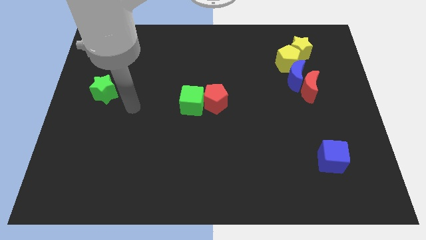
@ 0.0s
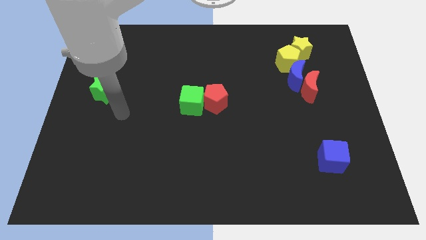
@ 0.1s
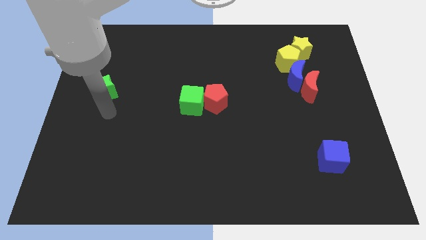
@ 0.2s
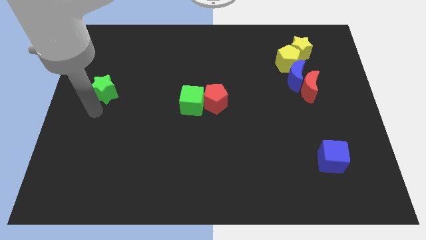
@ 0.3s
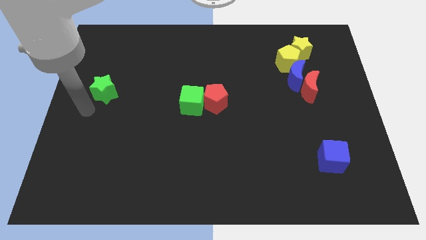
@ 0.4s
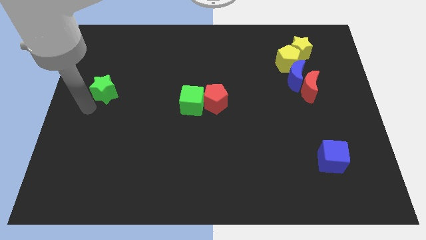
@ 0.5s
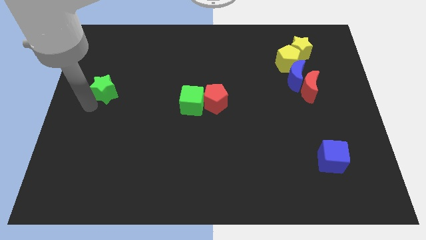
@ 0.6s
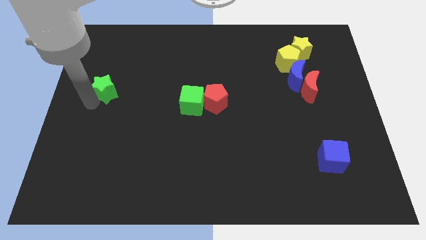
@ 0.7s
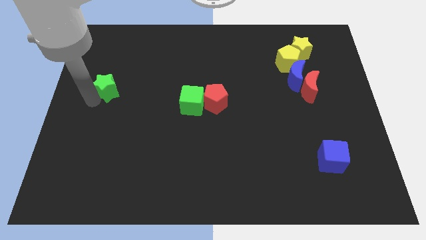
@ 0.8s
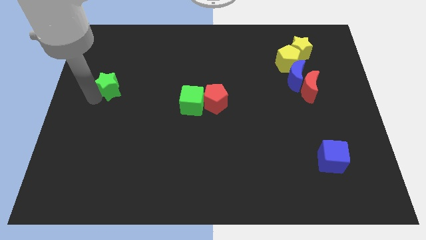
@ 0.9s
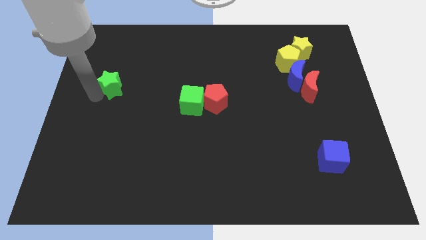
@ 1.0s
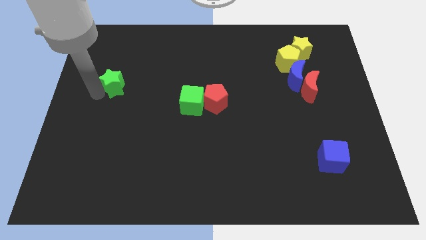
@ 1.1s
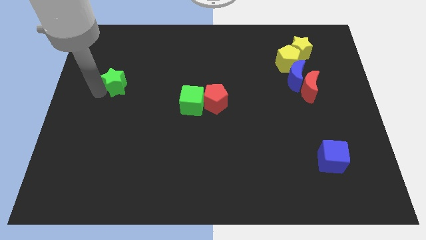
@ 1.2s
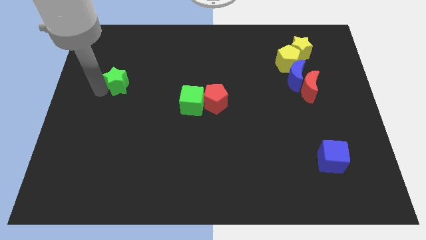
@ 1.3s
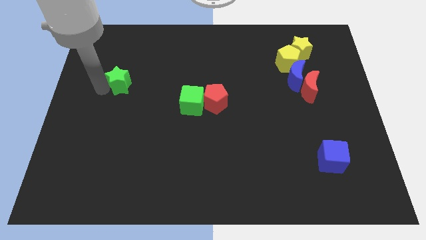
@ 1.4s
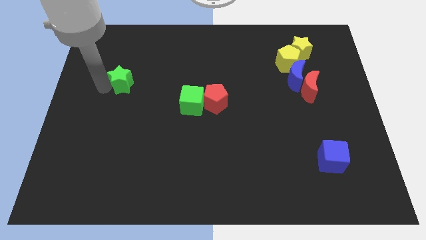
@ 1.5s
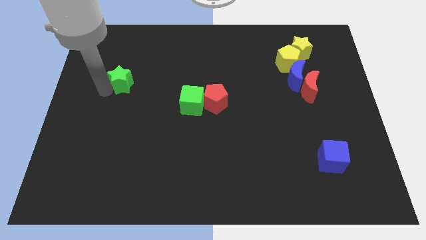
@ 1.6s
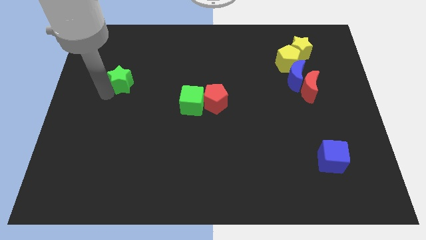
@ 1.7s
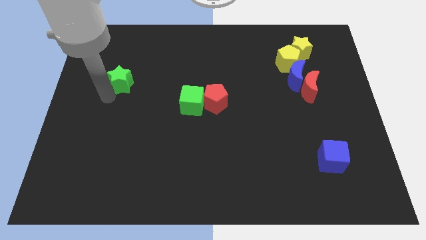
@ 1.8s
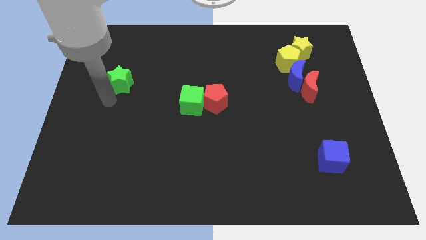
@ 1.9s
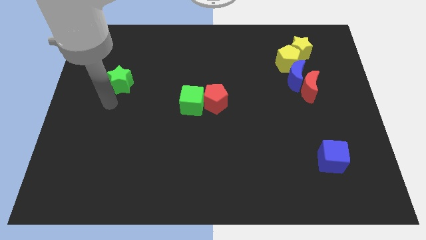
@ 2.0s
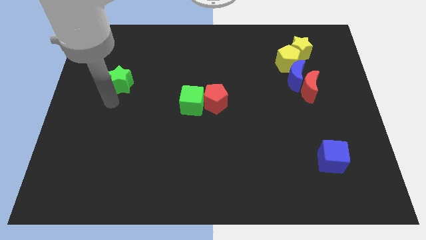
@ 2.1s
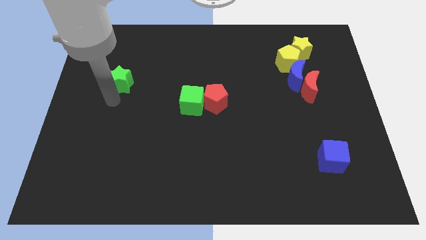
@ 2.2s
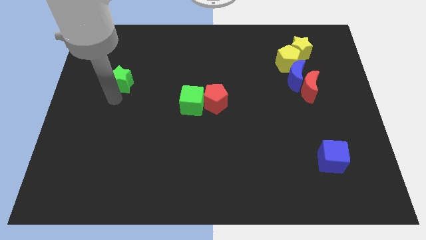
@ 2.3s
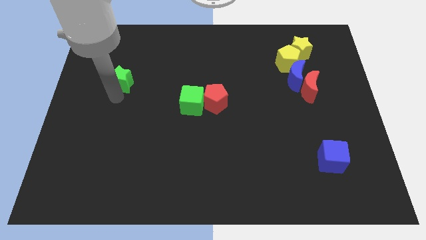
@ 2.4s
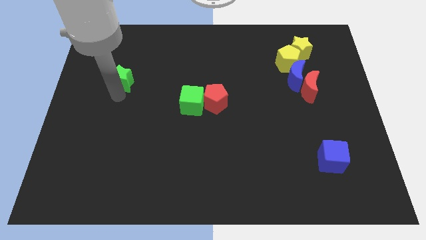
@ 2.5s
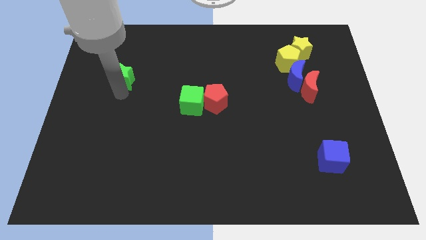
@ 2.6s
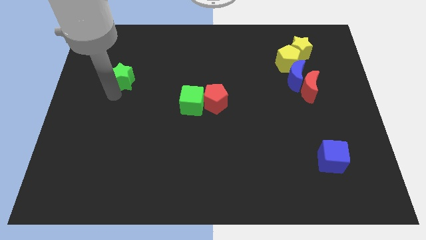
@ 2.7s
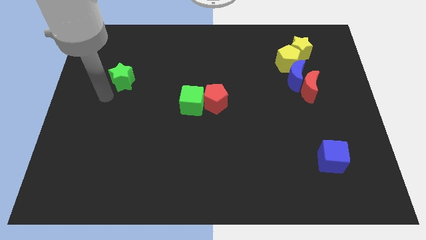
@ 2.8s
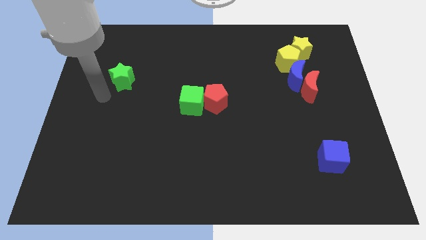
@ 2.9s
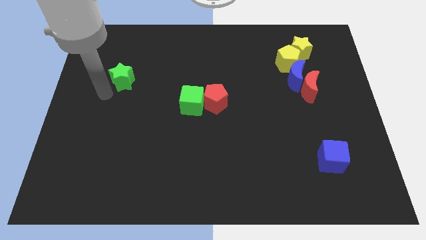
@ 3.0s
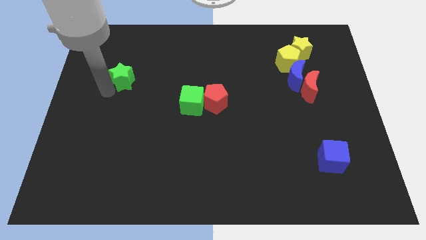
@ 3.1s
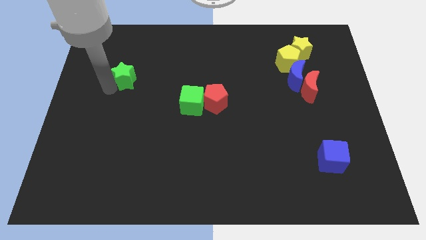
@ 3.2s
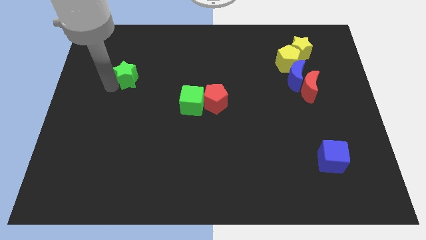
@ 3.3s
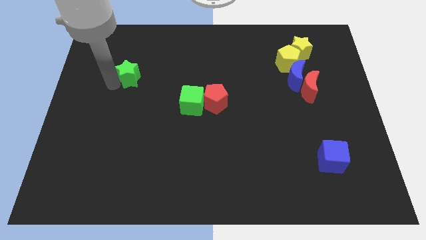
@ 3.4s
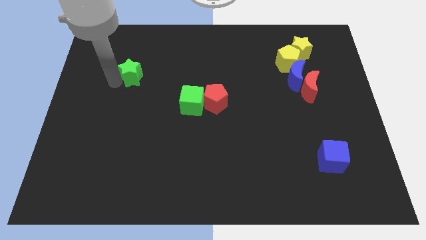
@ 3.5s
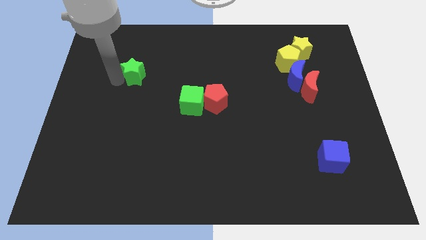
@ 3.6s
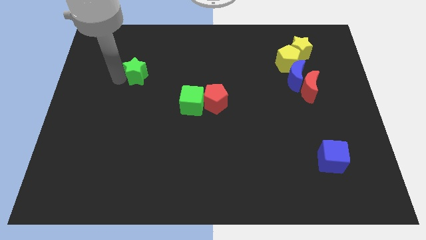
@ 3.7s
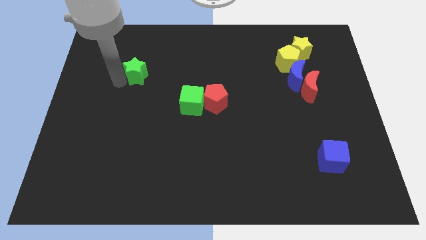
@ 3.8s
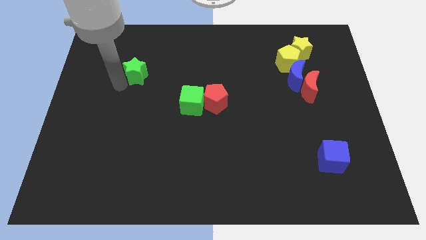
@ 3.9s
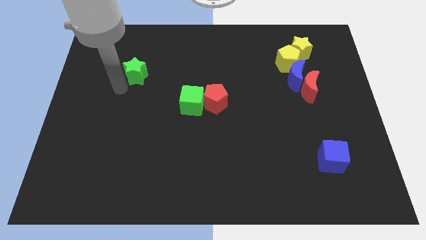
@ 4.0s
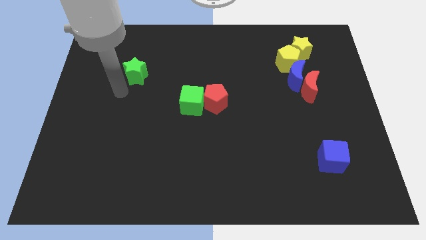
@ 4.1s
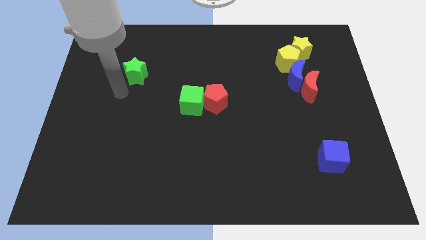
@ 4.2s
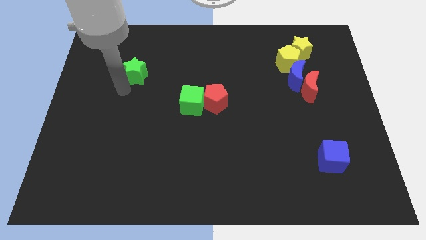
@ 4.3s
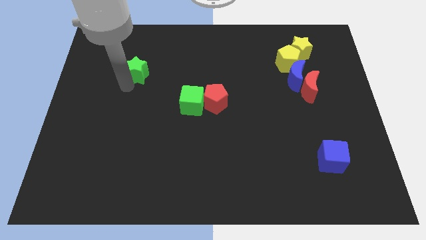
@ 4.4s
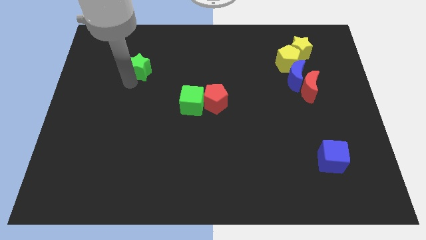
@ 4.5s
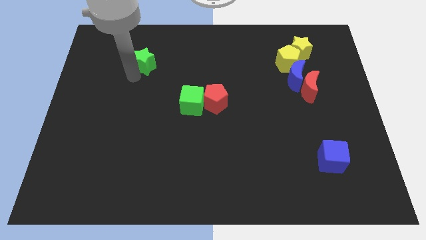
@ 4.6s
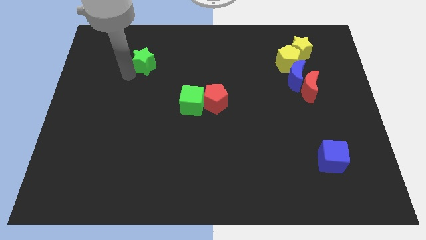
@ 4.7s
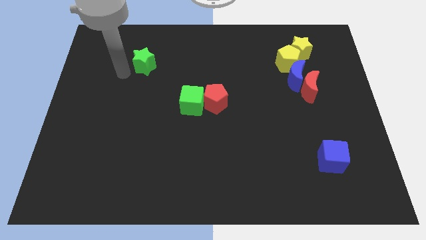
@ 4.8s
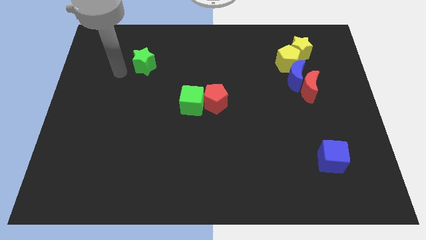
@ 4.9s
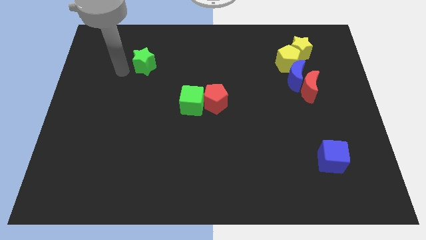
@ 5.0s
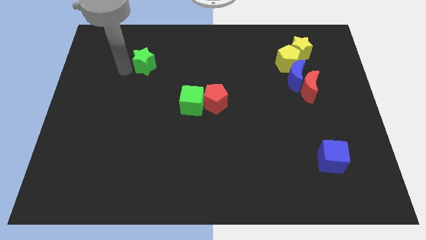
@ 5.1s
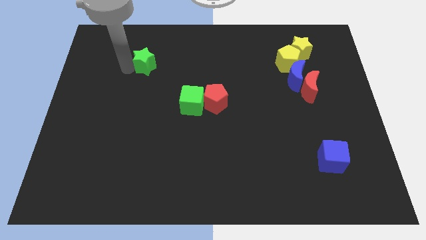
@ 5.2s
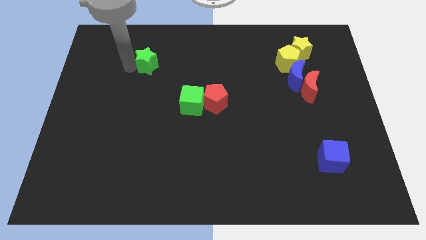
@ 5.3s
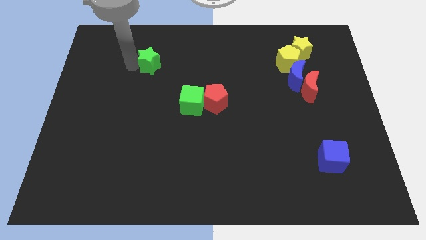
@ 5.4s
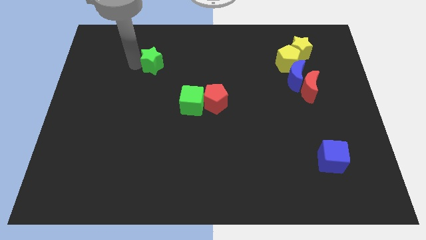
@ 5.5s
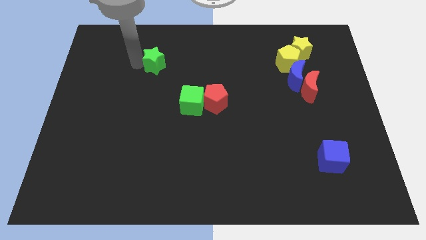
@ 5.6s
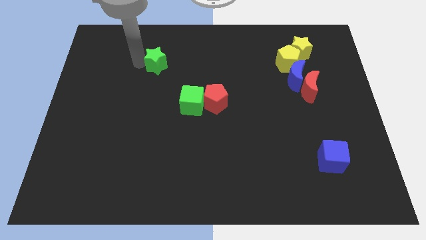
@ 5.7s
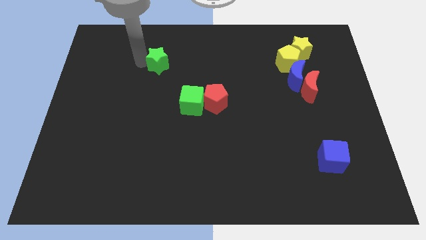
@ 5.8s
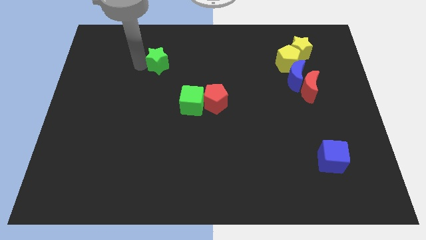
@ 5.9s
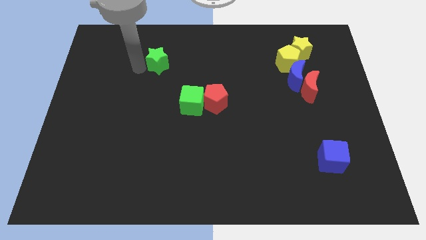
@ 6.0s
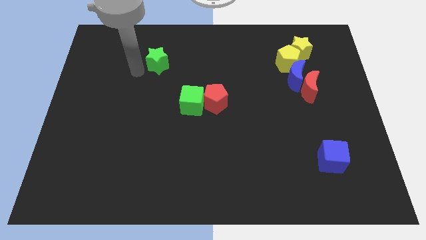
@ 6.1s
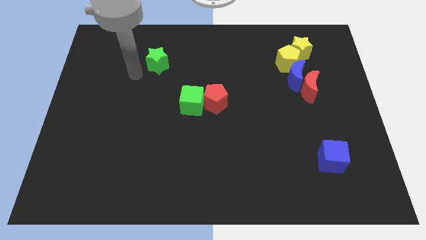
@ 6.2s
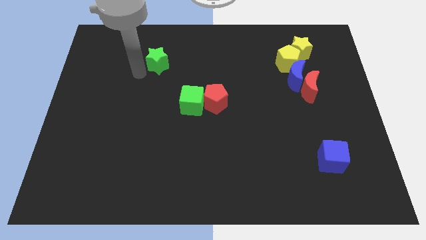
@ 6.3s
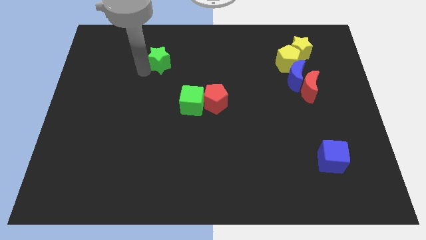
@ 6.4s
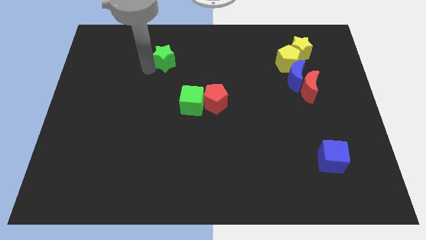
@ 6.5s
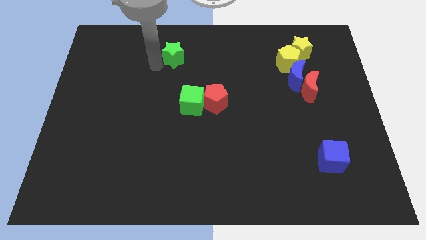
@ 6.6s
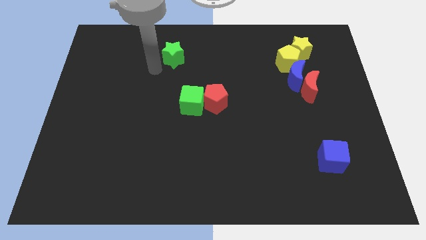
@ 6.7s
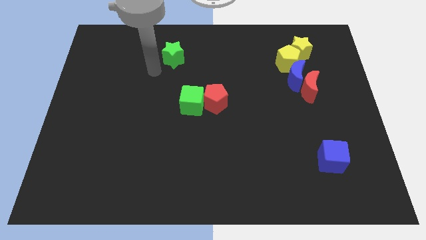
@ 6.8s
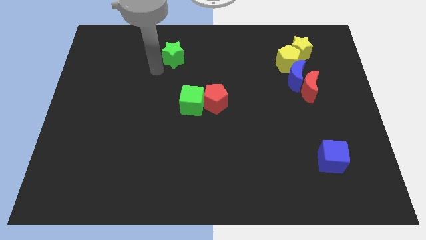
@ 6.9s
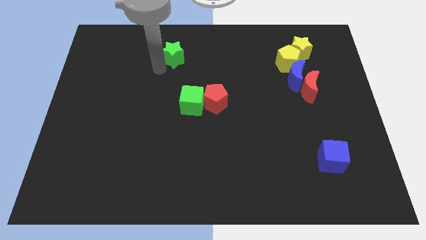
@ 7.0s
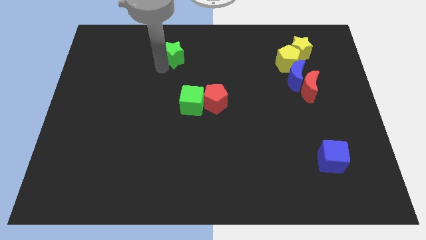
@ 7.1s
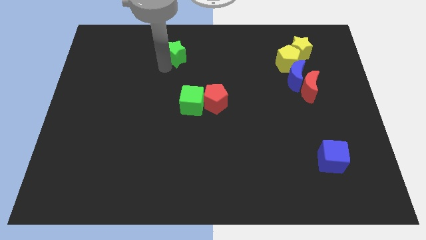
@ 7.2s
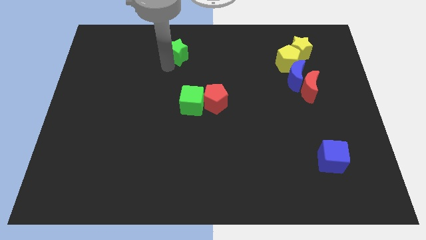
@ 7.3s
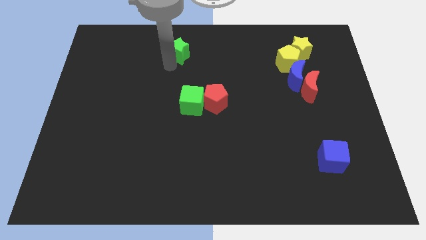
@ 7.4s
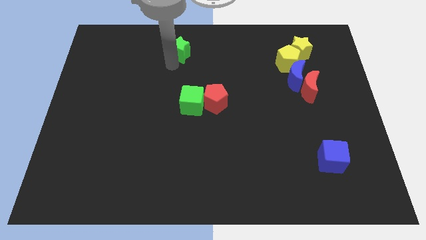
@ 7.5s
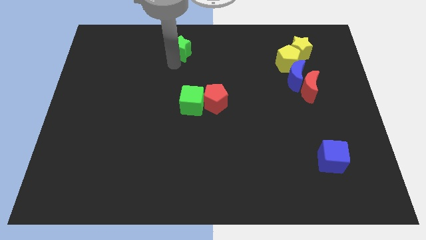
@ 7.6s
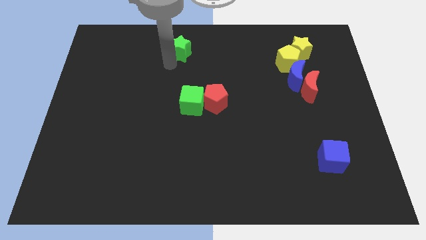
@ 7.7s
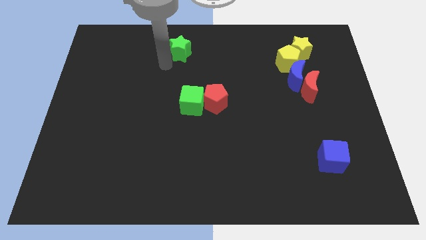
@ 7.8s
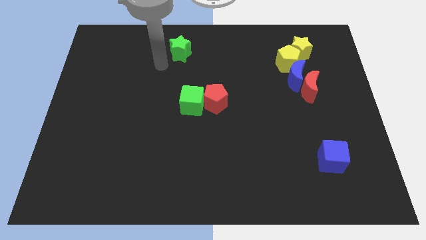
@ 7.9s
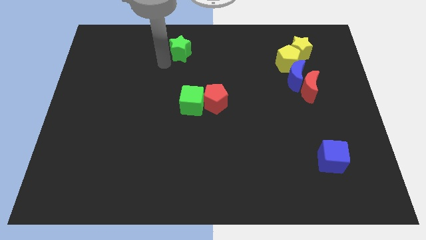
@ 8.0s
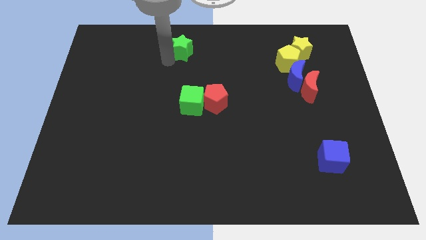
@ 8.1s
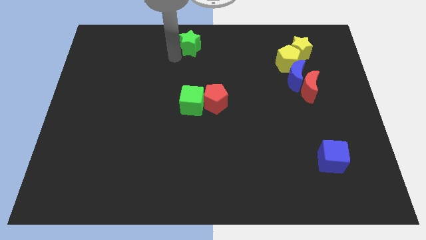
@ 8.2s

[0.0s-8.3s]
push the green star to the towards your base
